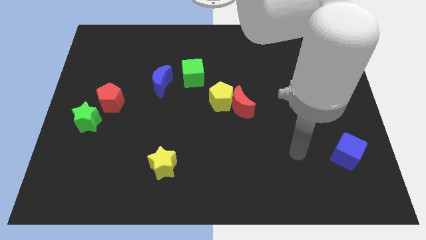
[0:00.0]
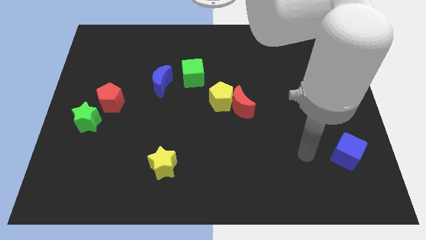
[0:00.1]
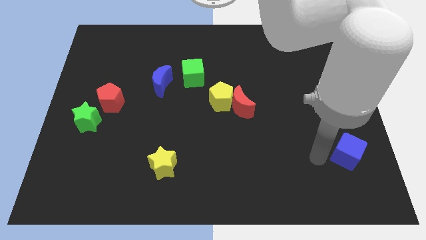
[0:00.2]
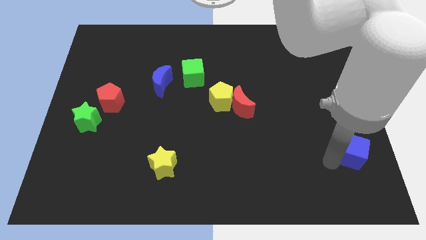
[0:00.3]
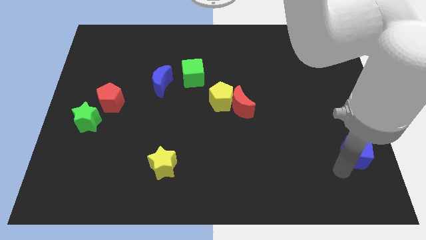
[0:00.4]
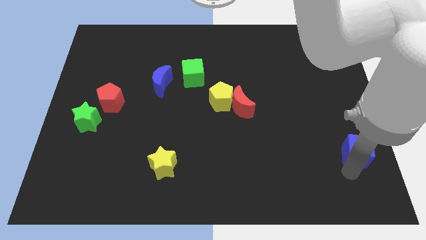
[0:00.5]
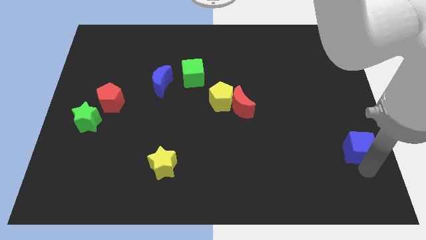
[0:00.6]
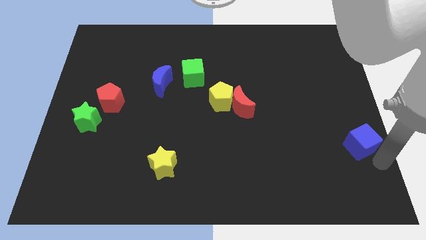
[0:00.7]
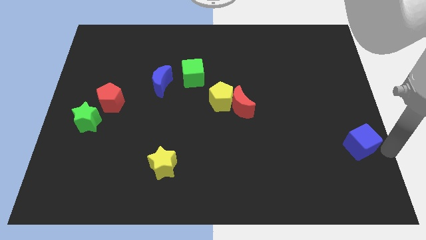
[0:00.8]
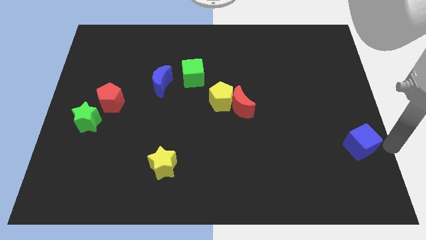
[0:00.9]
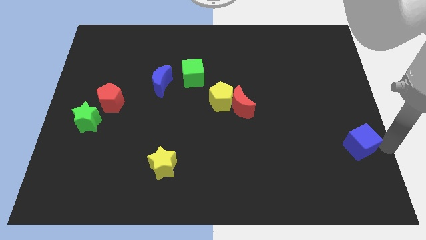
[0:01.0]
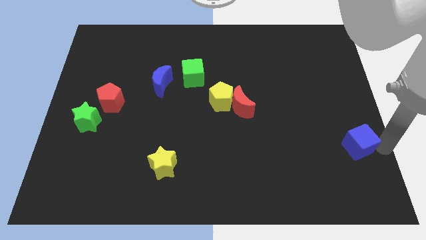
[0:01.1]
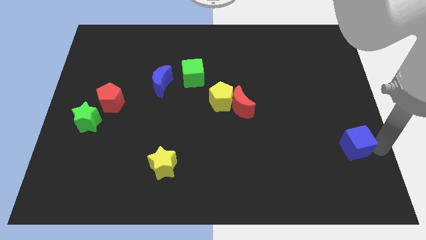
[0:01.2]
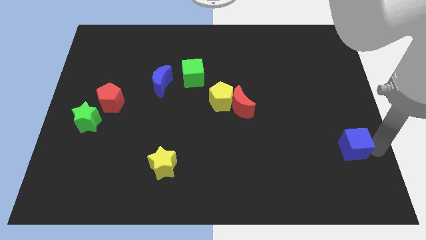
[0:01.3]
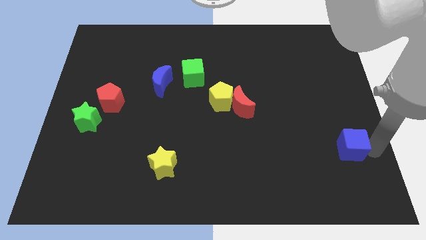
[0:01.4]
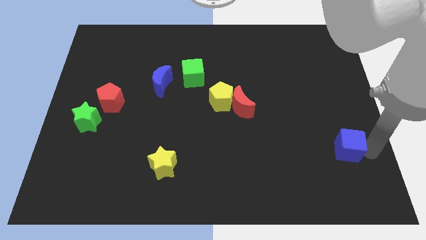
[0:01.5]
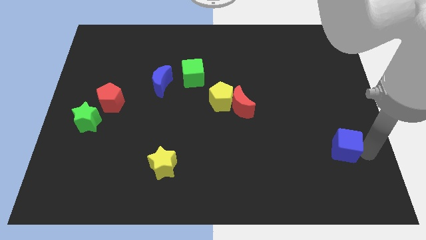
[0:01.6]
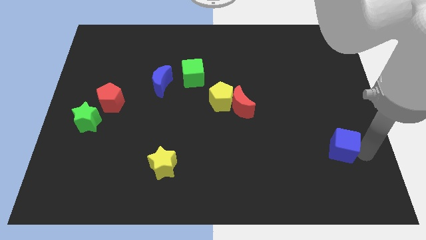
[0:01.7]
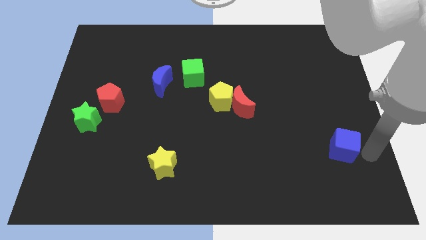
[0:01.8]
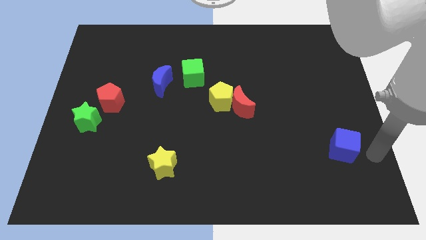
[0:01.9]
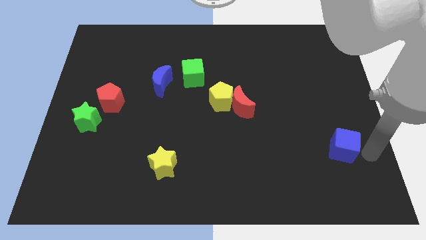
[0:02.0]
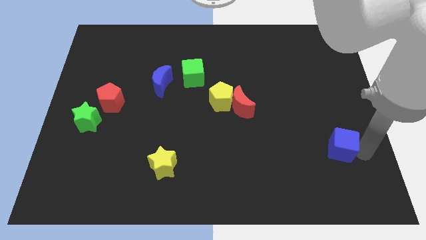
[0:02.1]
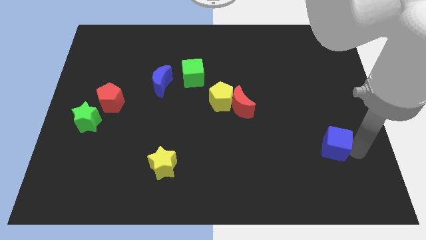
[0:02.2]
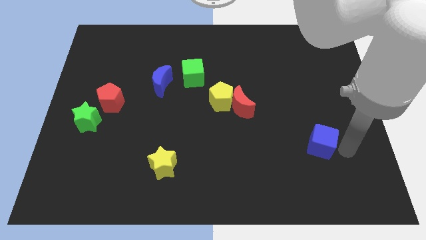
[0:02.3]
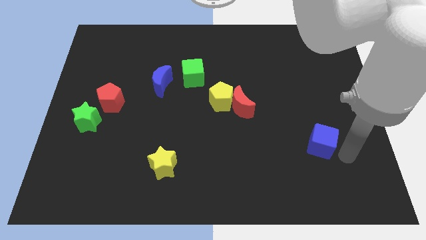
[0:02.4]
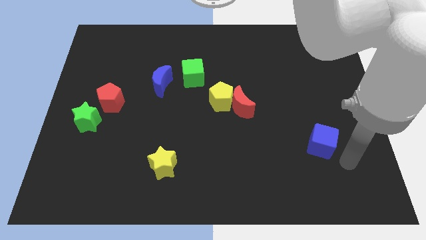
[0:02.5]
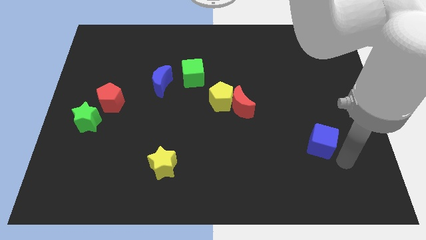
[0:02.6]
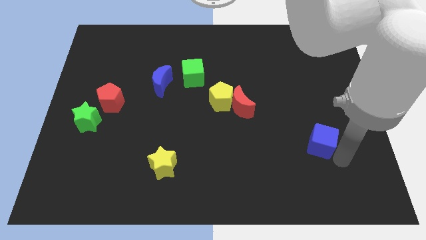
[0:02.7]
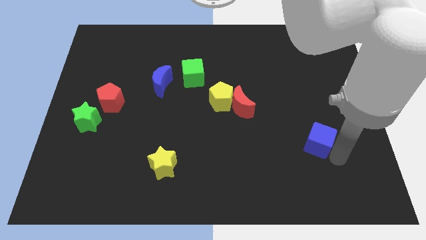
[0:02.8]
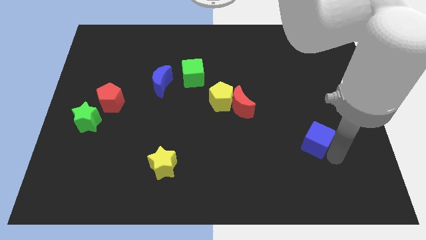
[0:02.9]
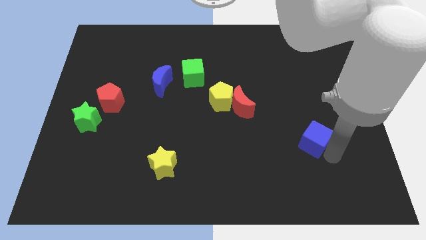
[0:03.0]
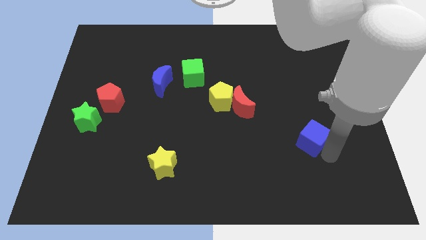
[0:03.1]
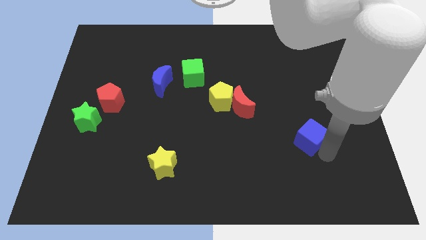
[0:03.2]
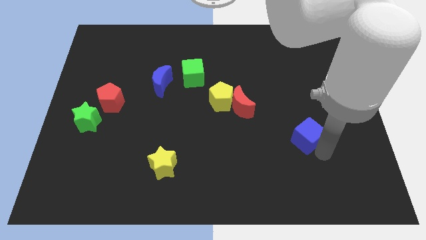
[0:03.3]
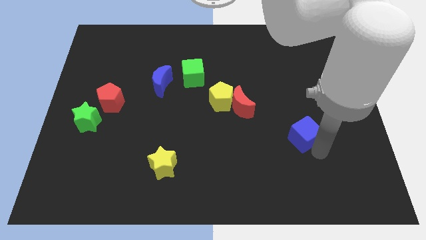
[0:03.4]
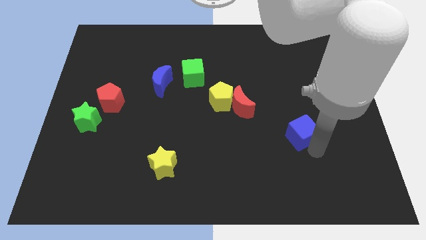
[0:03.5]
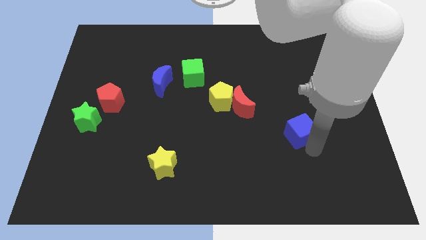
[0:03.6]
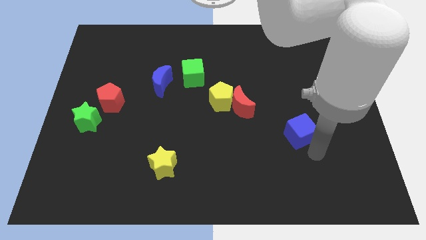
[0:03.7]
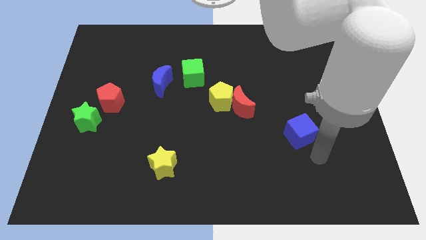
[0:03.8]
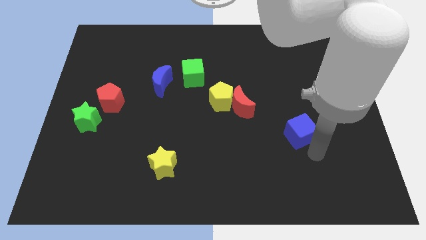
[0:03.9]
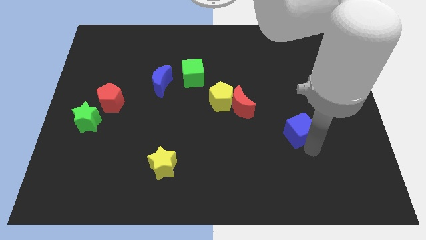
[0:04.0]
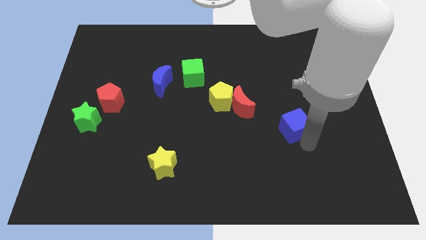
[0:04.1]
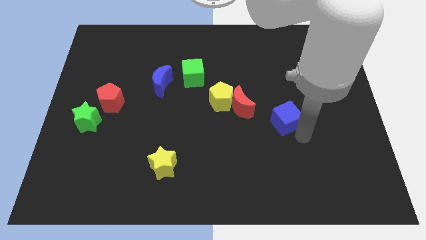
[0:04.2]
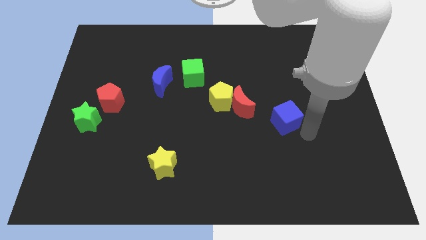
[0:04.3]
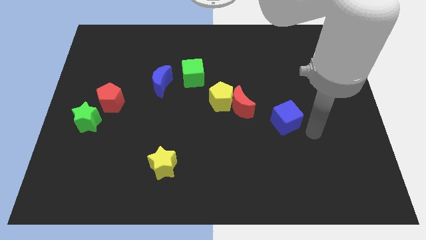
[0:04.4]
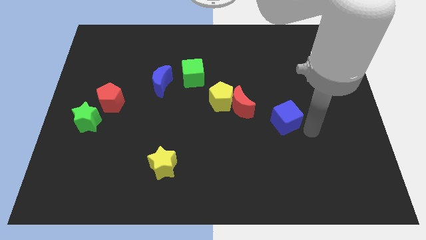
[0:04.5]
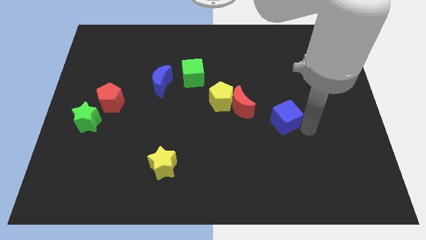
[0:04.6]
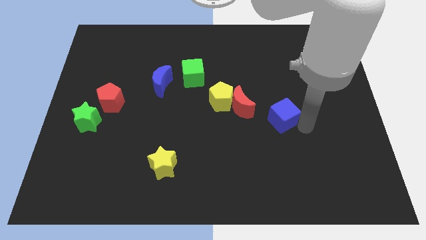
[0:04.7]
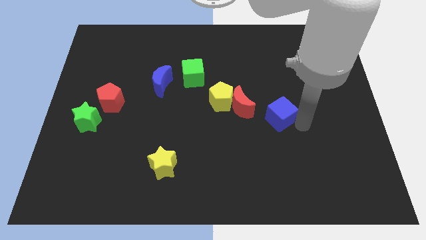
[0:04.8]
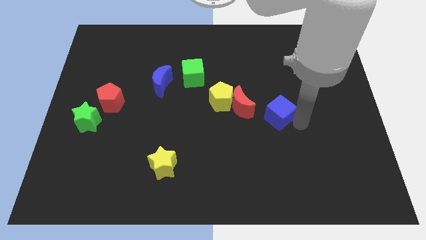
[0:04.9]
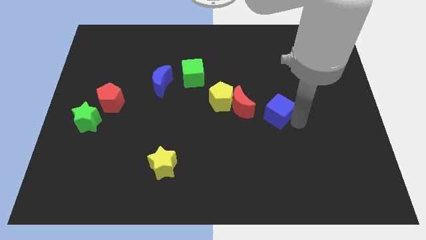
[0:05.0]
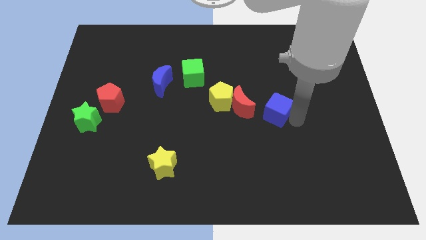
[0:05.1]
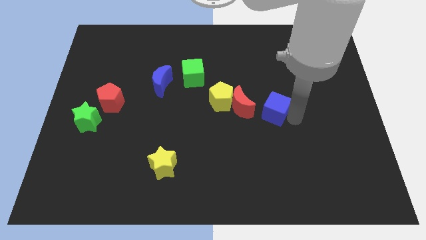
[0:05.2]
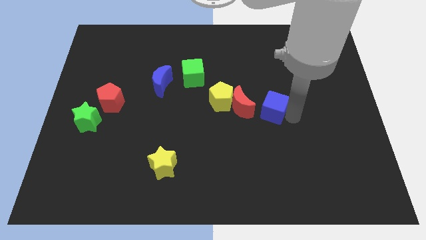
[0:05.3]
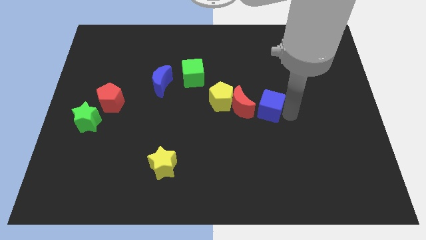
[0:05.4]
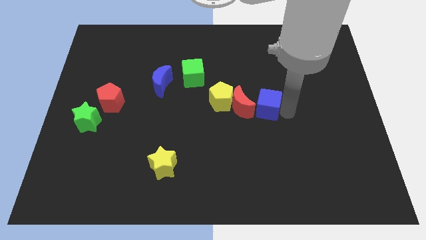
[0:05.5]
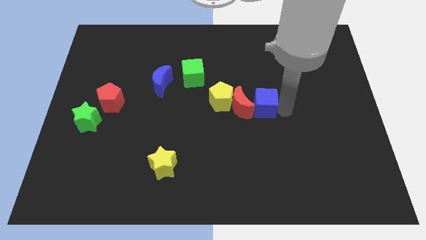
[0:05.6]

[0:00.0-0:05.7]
push the blue cube next to the red moon

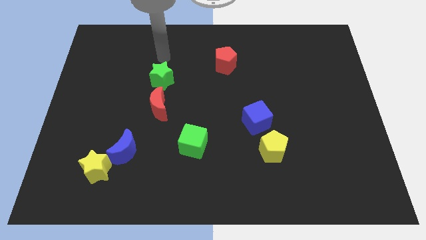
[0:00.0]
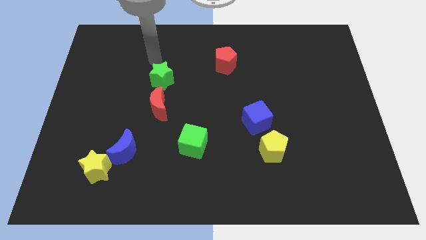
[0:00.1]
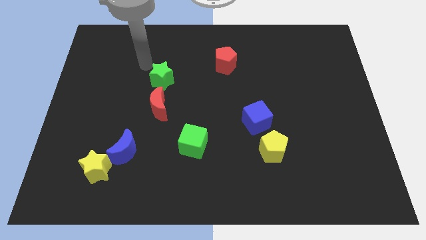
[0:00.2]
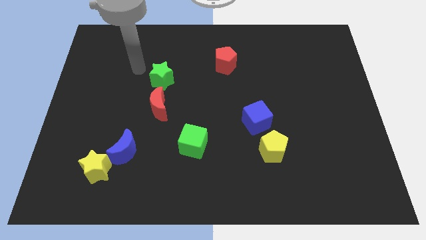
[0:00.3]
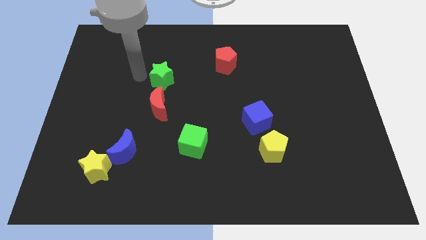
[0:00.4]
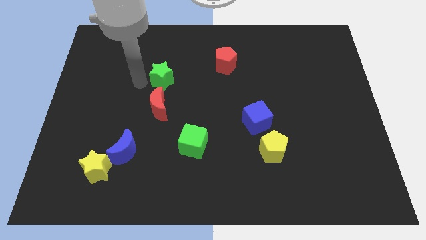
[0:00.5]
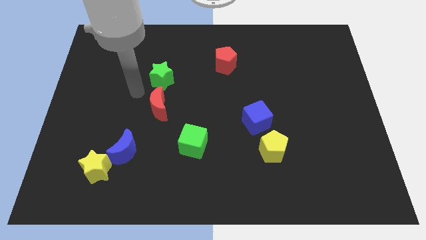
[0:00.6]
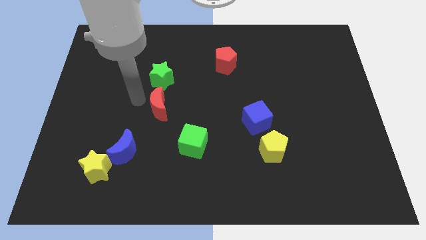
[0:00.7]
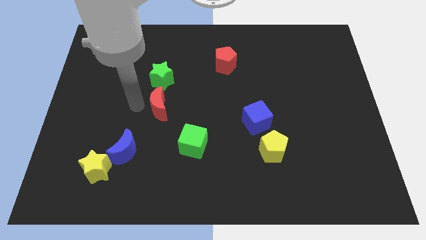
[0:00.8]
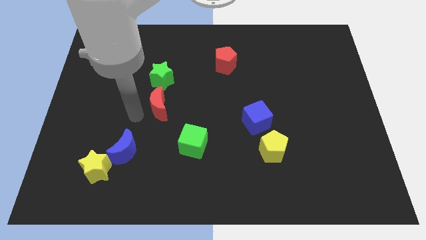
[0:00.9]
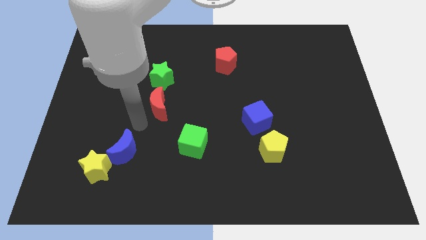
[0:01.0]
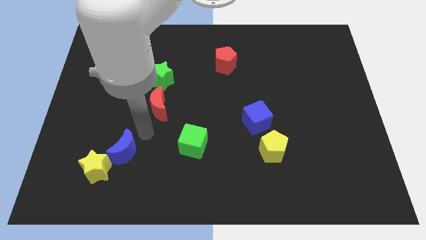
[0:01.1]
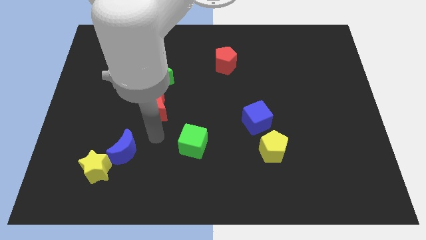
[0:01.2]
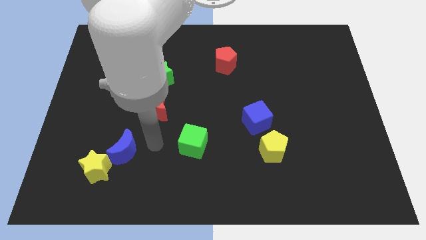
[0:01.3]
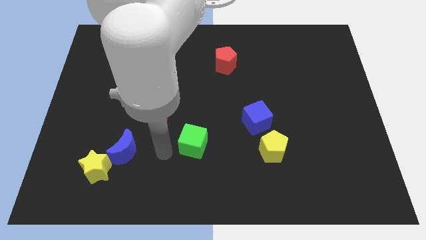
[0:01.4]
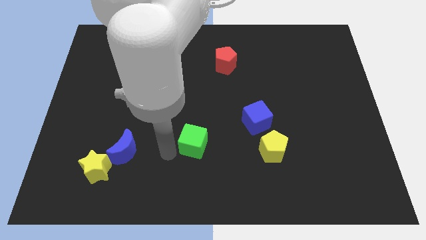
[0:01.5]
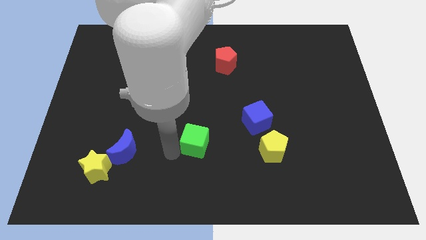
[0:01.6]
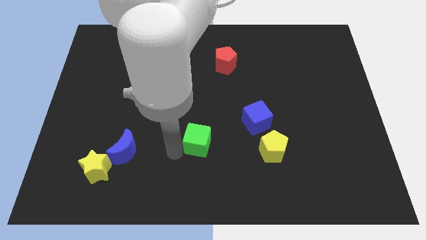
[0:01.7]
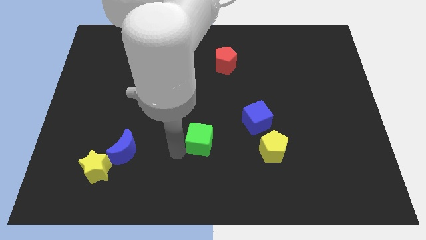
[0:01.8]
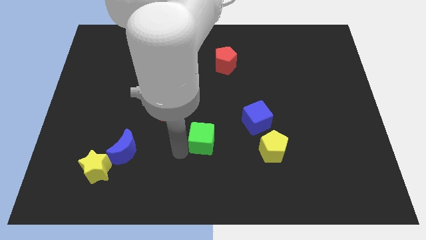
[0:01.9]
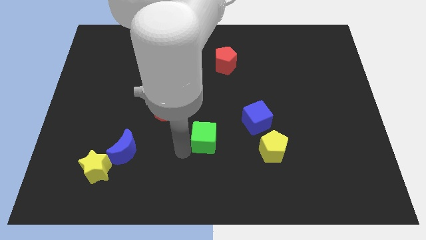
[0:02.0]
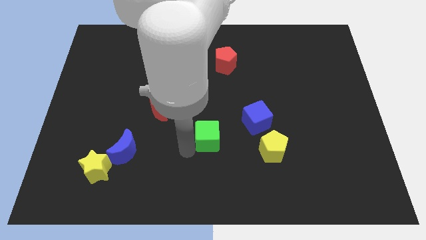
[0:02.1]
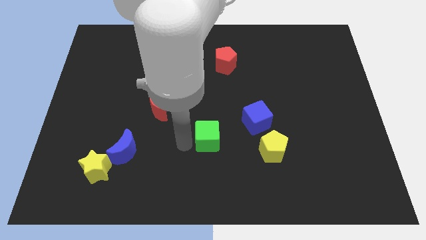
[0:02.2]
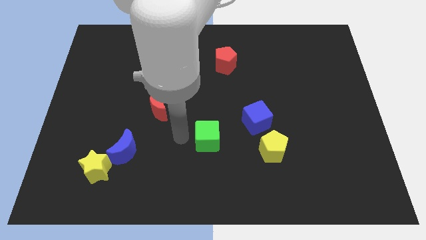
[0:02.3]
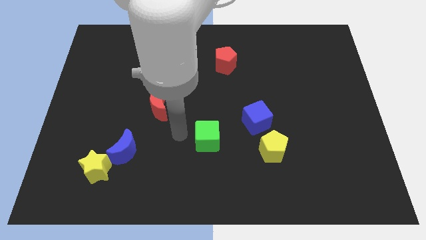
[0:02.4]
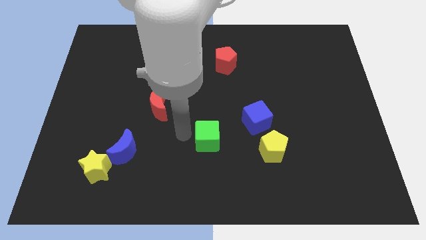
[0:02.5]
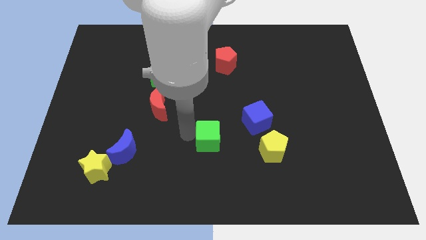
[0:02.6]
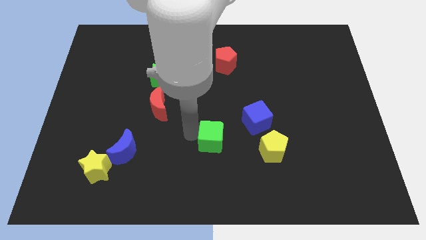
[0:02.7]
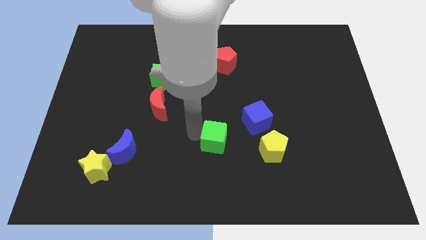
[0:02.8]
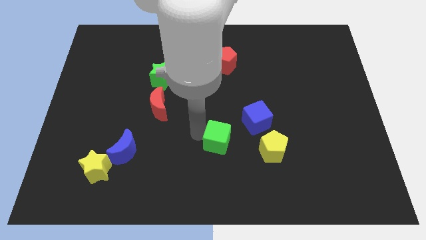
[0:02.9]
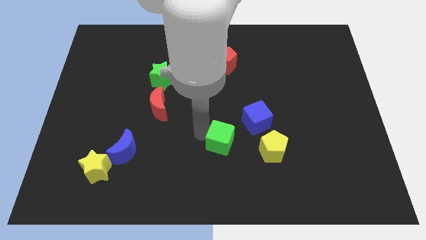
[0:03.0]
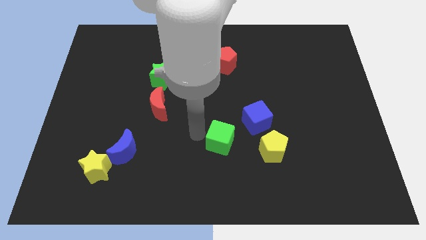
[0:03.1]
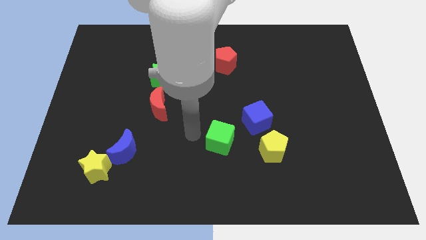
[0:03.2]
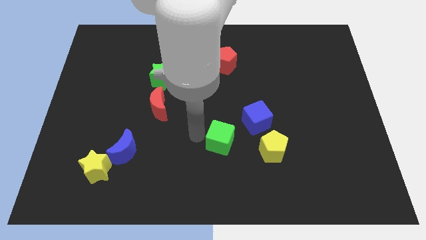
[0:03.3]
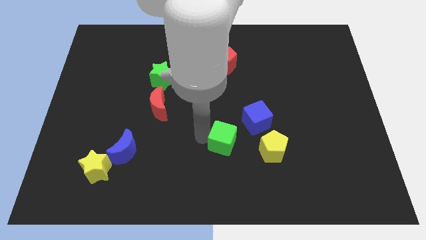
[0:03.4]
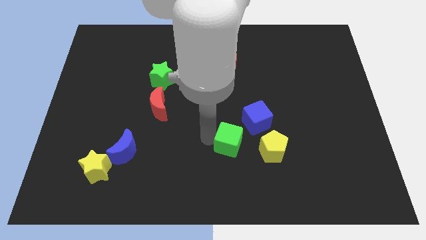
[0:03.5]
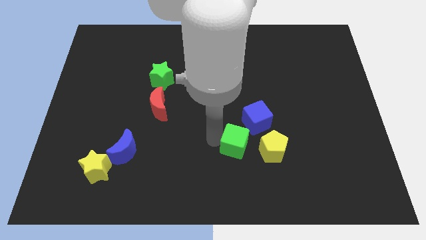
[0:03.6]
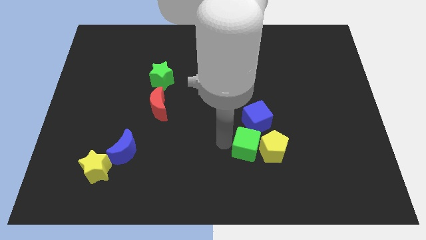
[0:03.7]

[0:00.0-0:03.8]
push the green cube next to the yellow pentagon
